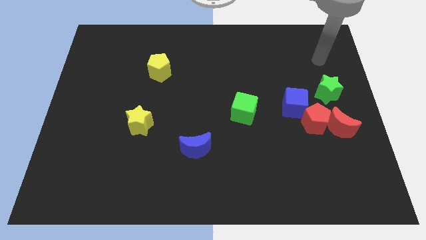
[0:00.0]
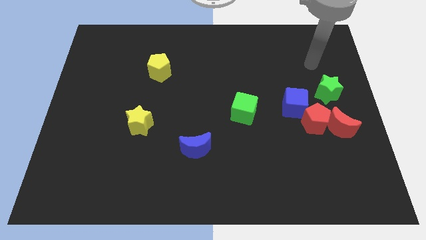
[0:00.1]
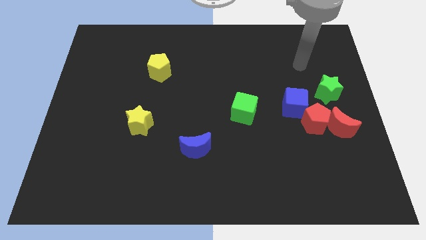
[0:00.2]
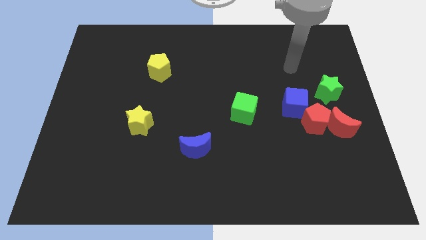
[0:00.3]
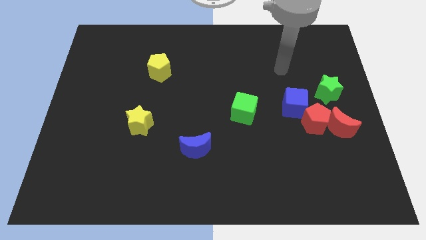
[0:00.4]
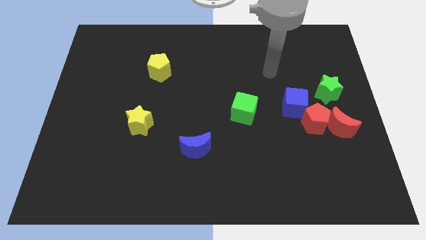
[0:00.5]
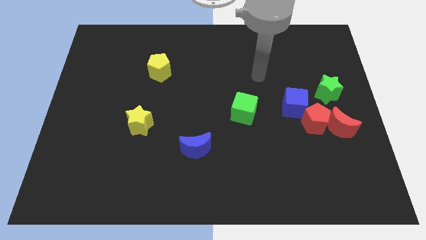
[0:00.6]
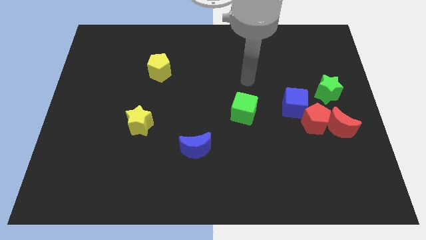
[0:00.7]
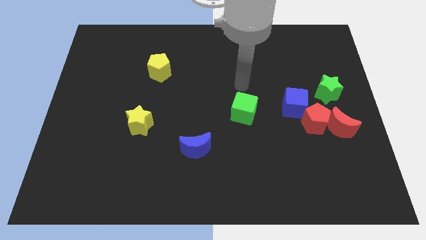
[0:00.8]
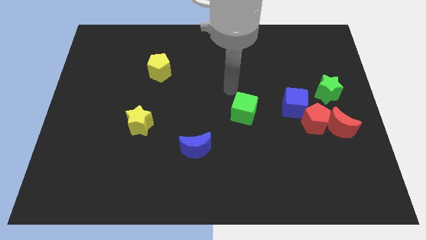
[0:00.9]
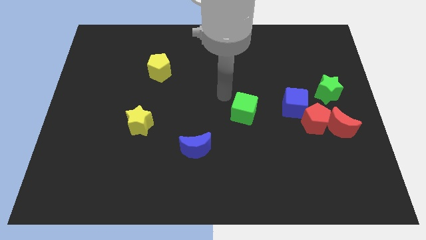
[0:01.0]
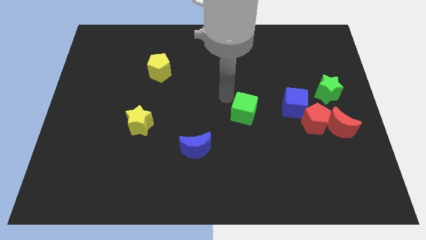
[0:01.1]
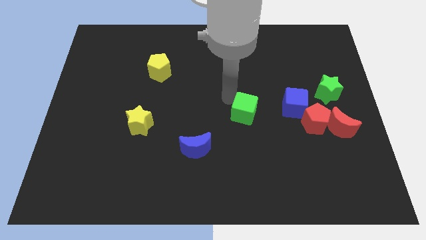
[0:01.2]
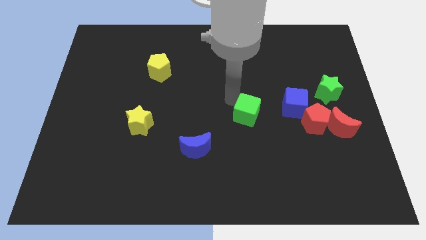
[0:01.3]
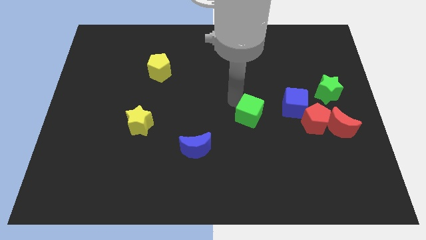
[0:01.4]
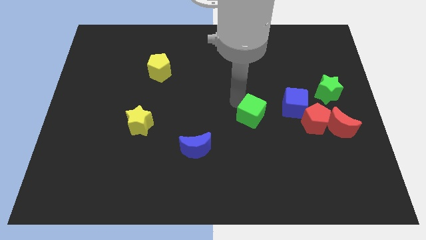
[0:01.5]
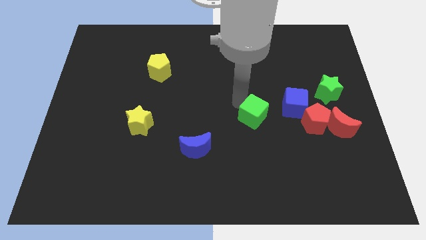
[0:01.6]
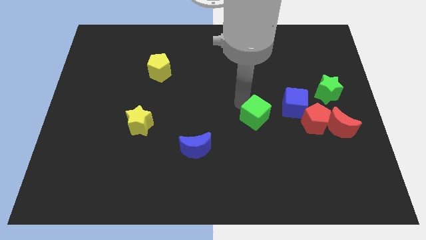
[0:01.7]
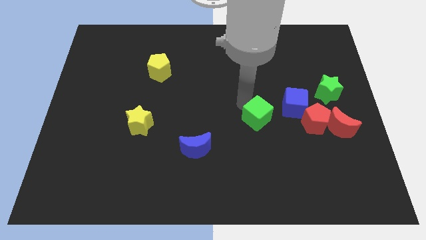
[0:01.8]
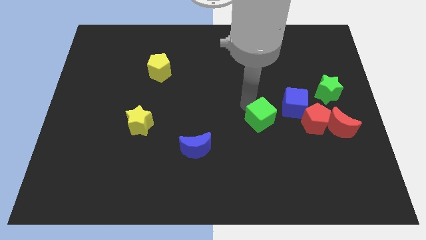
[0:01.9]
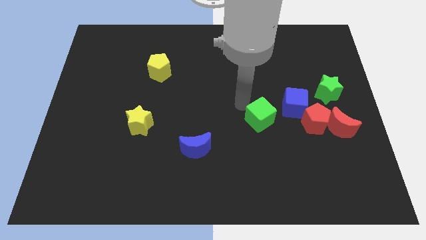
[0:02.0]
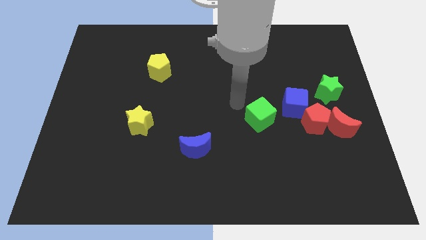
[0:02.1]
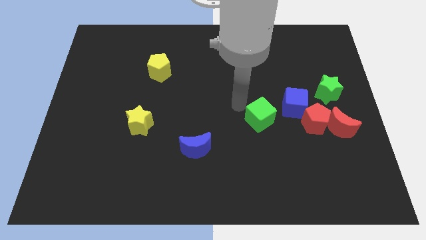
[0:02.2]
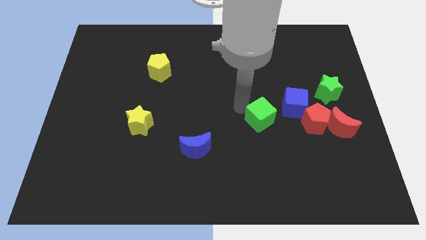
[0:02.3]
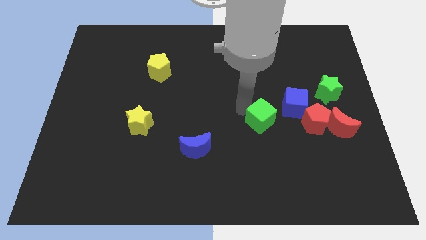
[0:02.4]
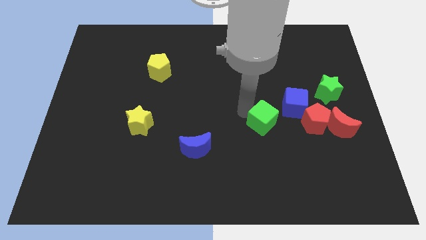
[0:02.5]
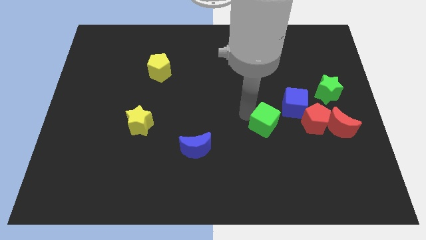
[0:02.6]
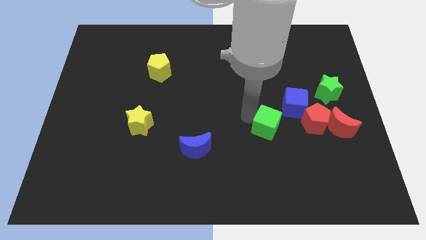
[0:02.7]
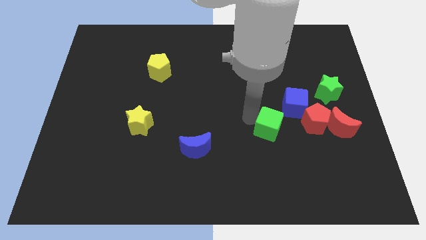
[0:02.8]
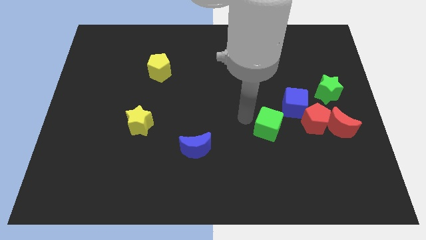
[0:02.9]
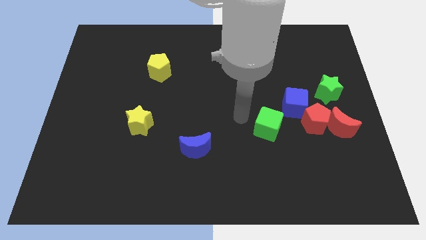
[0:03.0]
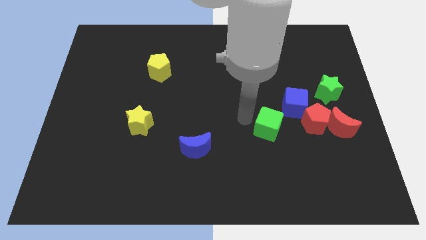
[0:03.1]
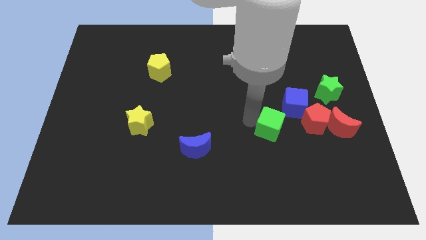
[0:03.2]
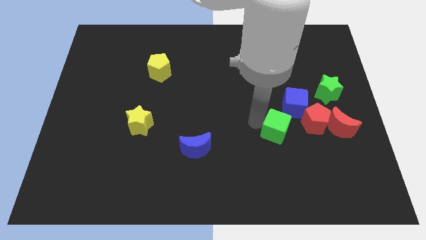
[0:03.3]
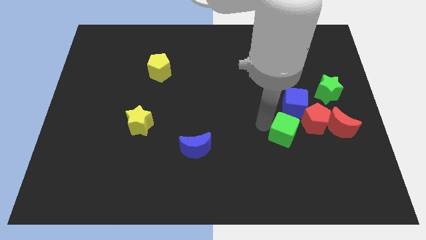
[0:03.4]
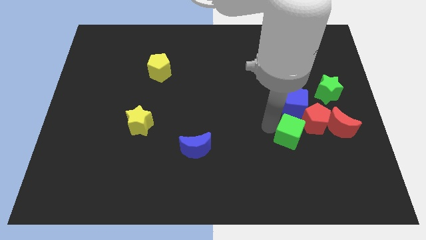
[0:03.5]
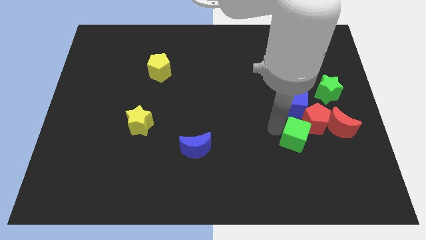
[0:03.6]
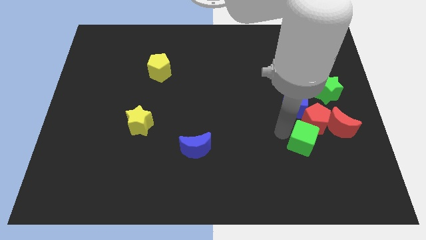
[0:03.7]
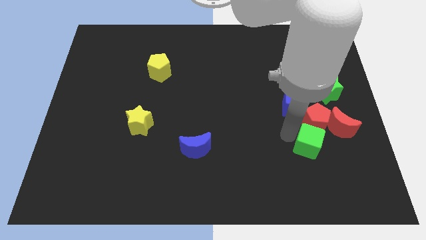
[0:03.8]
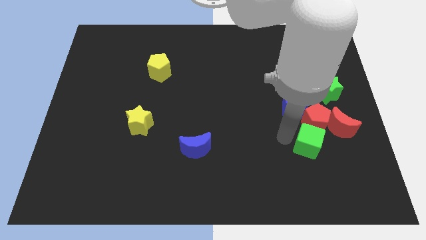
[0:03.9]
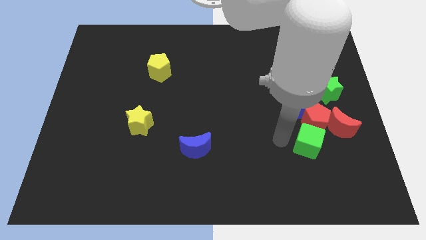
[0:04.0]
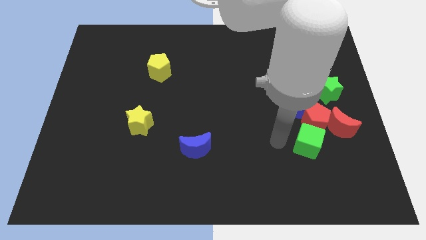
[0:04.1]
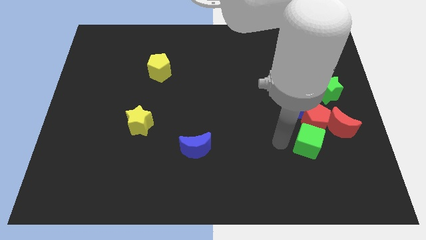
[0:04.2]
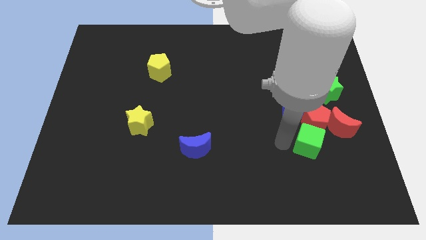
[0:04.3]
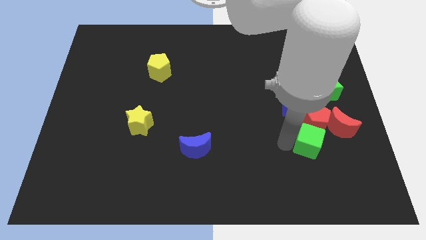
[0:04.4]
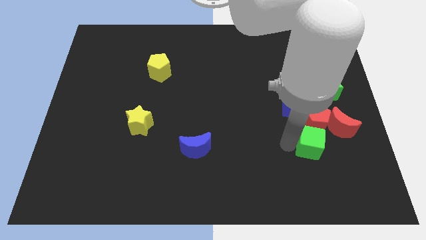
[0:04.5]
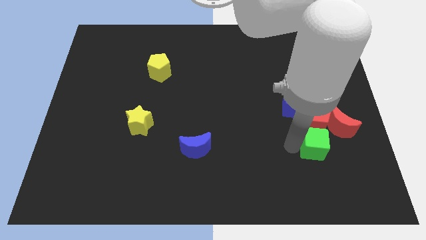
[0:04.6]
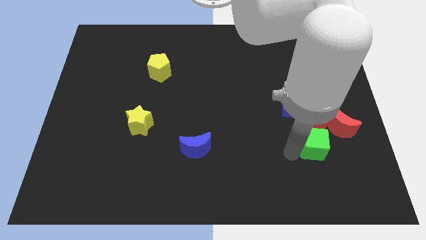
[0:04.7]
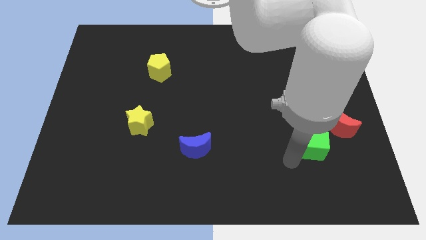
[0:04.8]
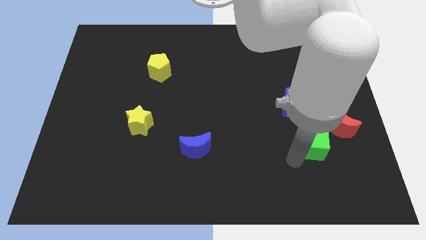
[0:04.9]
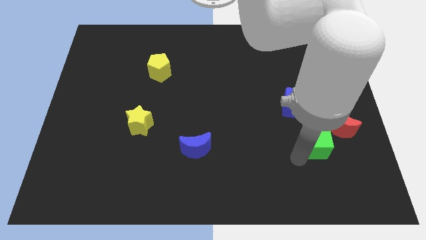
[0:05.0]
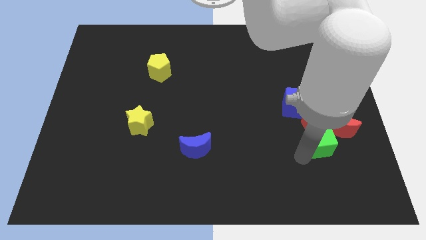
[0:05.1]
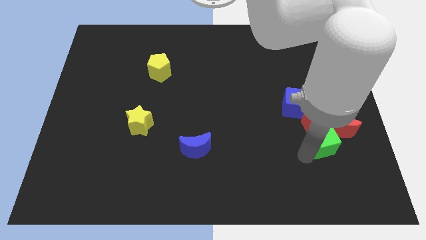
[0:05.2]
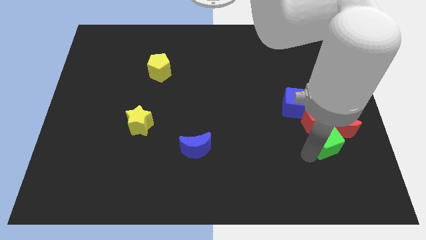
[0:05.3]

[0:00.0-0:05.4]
push the green cube close to the red moon

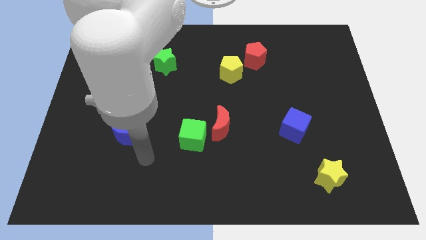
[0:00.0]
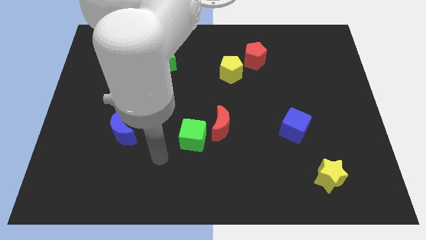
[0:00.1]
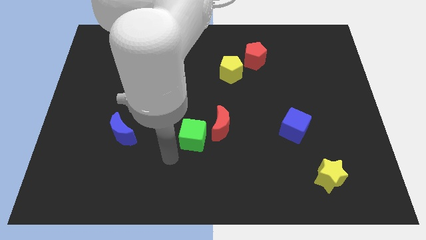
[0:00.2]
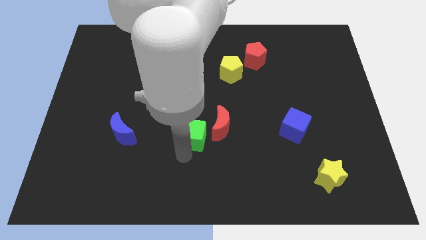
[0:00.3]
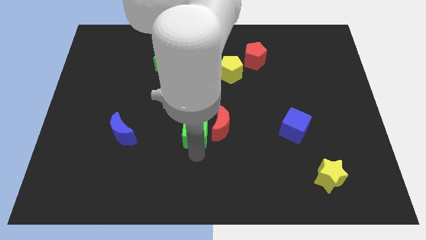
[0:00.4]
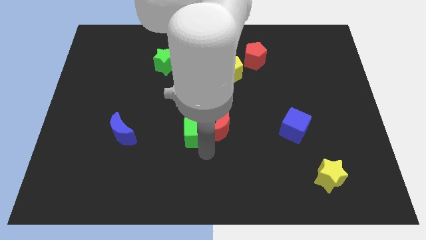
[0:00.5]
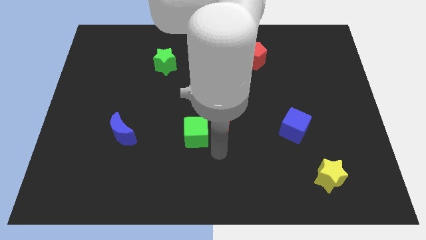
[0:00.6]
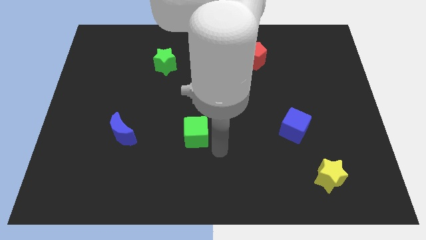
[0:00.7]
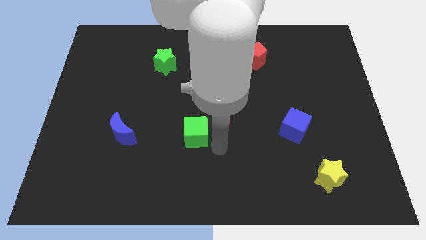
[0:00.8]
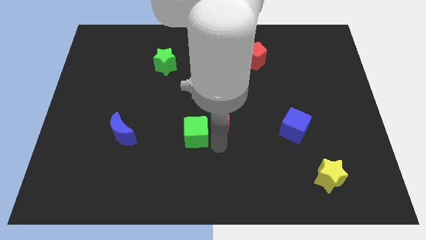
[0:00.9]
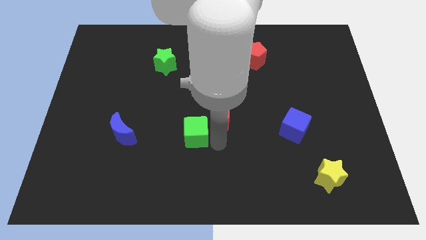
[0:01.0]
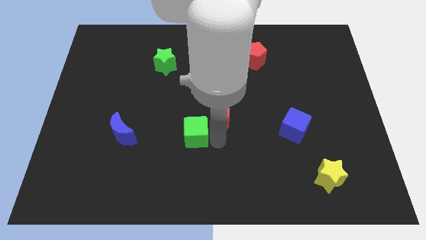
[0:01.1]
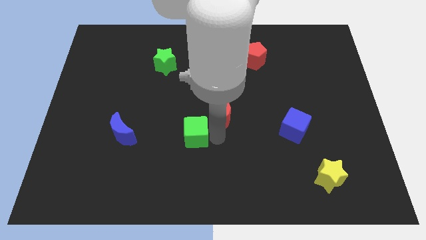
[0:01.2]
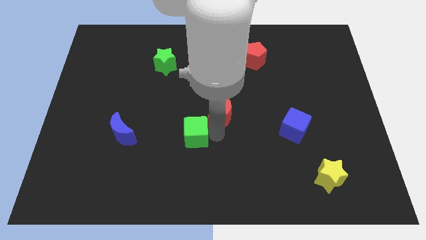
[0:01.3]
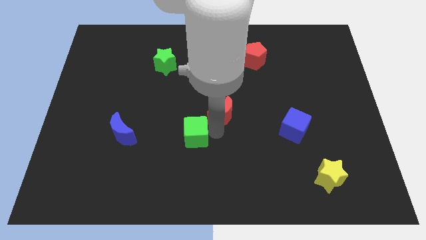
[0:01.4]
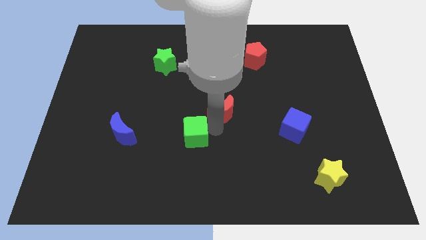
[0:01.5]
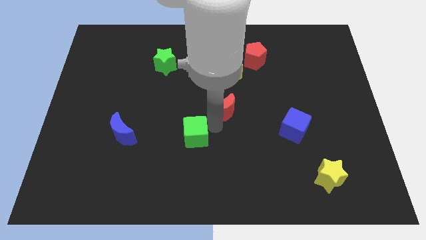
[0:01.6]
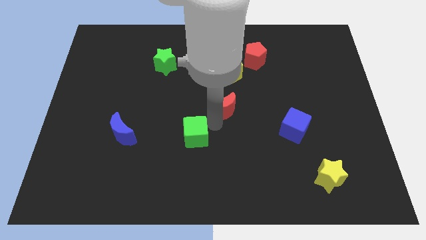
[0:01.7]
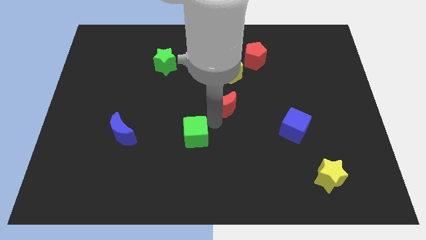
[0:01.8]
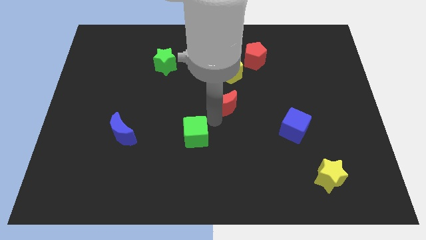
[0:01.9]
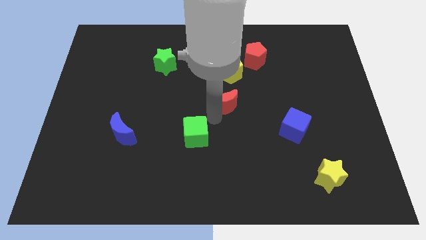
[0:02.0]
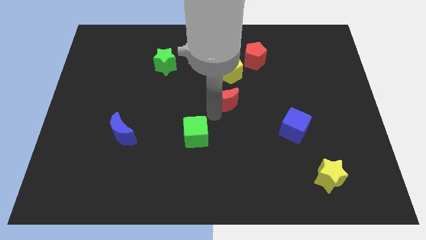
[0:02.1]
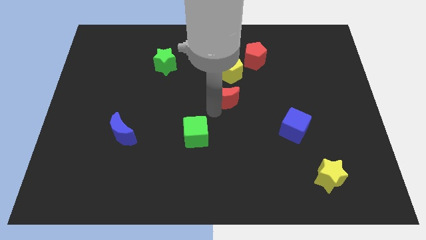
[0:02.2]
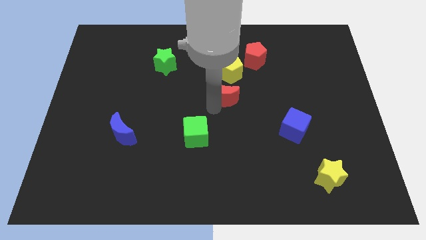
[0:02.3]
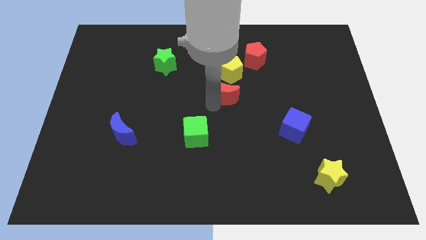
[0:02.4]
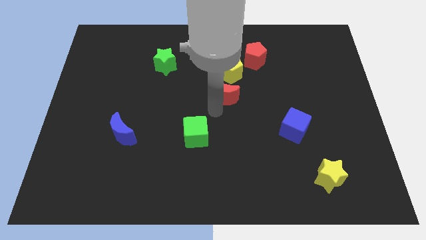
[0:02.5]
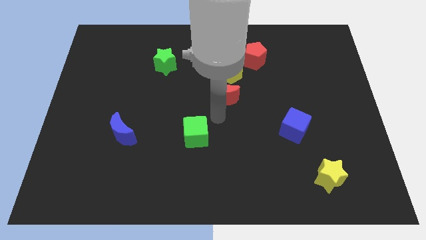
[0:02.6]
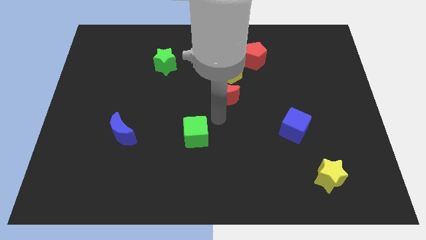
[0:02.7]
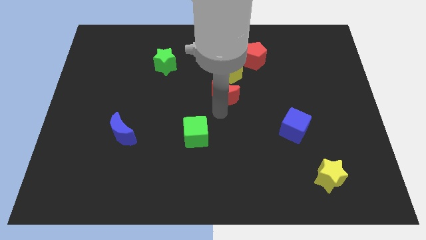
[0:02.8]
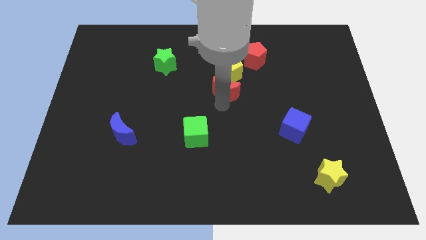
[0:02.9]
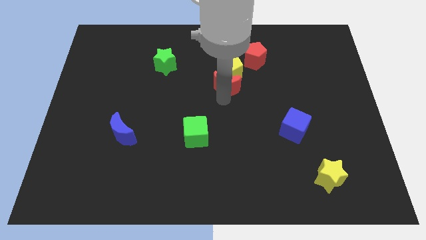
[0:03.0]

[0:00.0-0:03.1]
put the red moon close to the yellow pentagon
